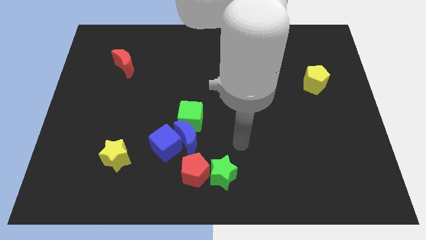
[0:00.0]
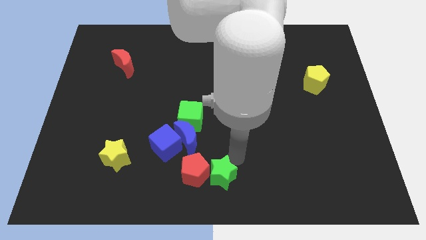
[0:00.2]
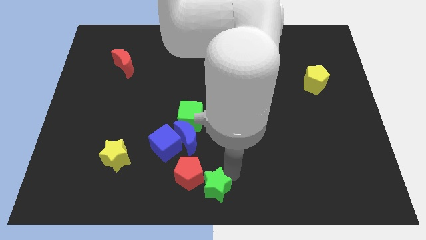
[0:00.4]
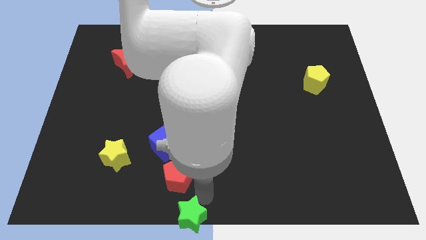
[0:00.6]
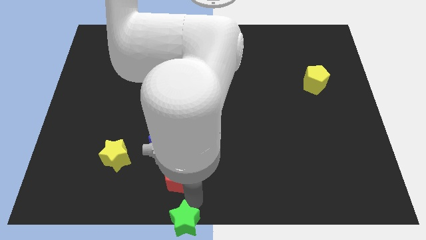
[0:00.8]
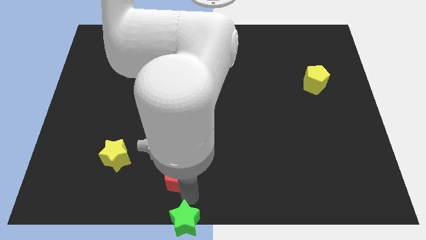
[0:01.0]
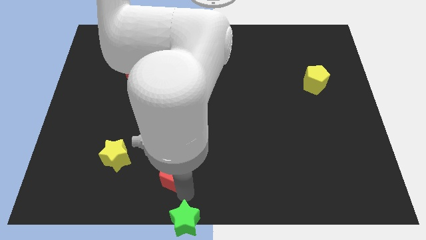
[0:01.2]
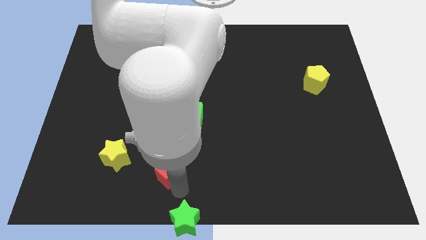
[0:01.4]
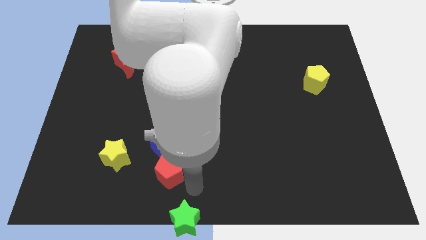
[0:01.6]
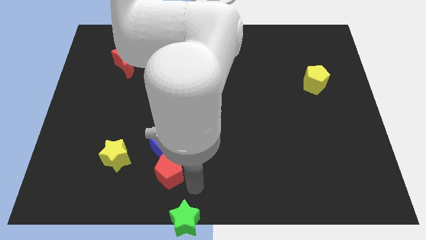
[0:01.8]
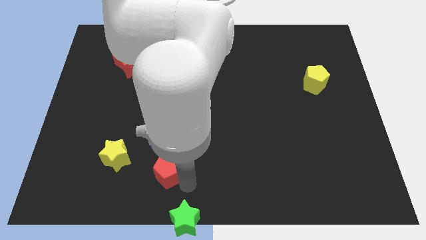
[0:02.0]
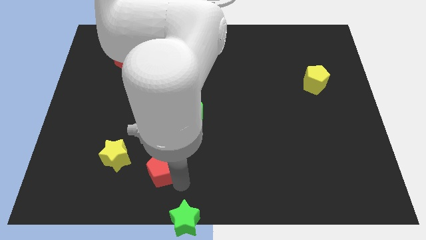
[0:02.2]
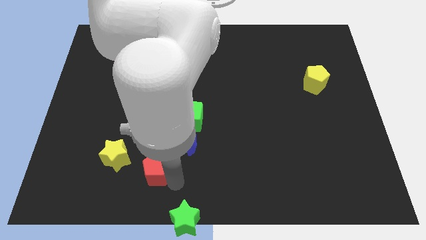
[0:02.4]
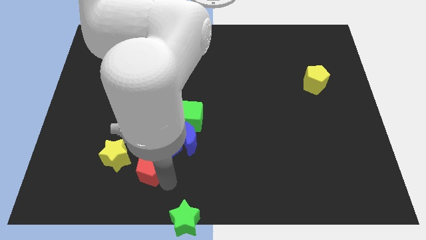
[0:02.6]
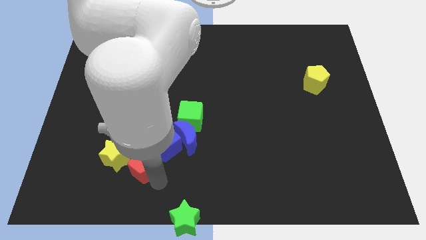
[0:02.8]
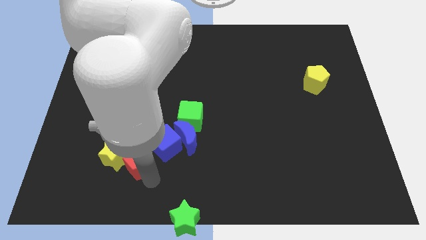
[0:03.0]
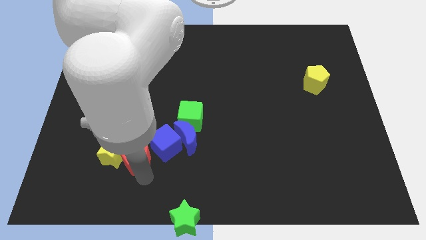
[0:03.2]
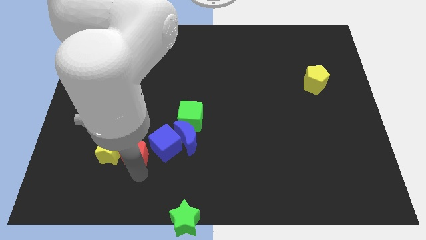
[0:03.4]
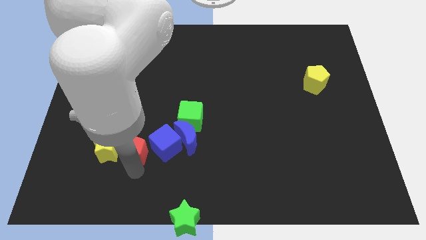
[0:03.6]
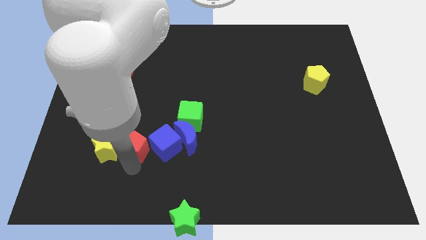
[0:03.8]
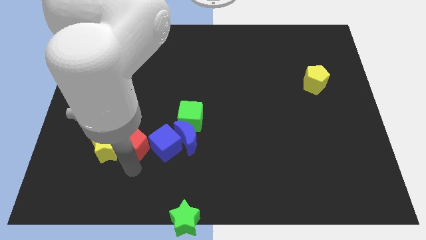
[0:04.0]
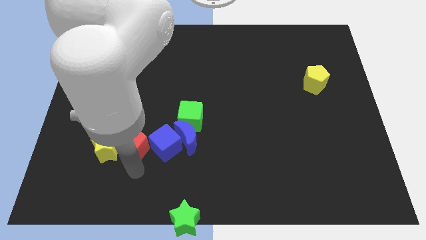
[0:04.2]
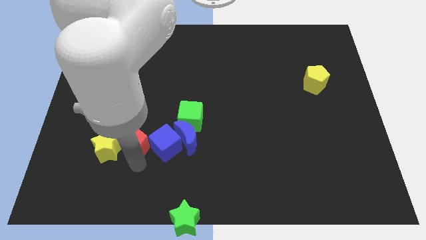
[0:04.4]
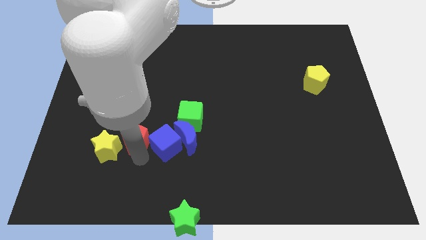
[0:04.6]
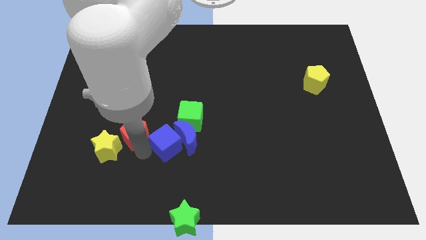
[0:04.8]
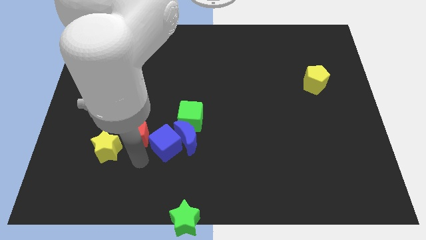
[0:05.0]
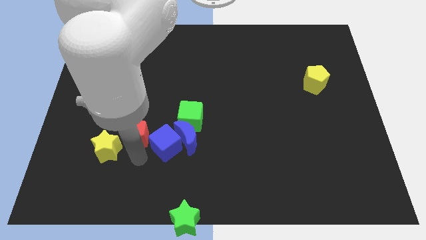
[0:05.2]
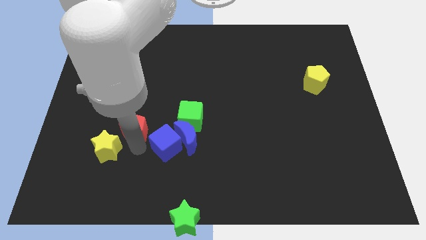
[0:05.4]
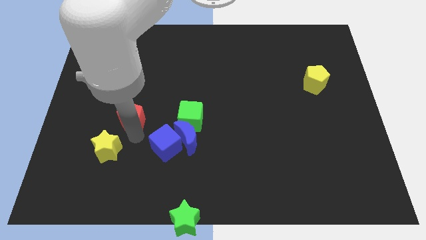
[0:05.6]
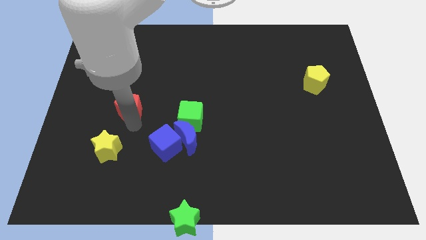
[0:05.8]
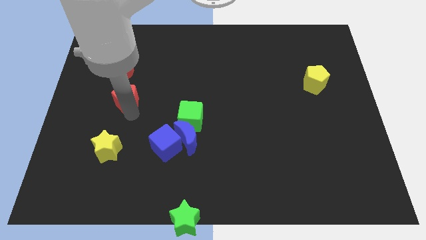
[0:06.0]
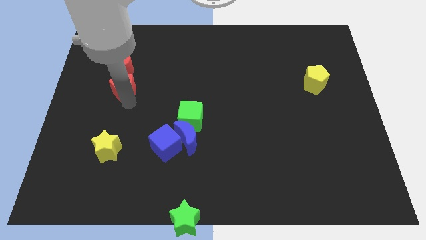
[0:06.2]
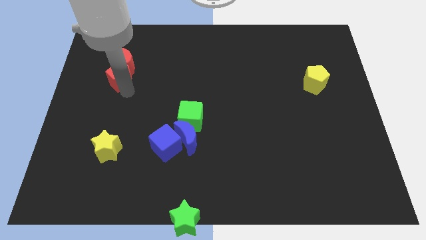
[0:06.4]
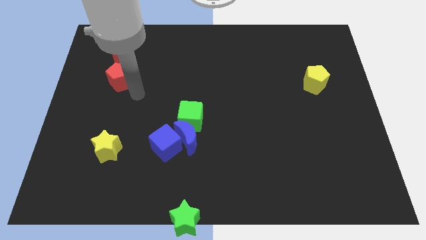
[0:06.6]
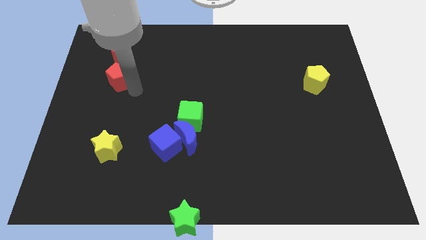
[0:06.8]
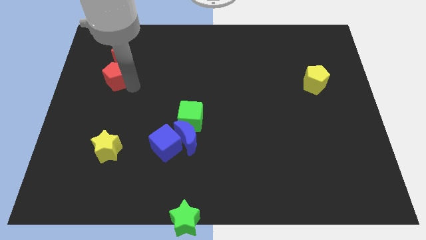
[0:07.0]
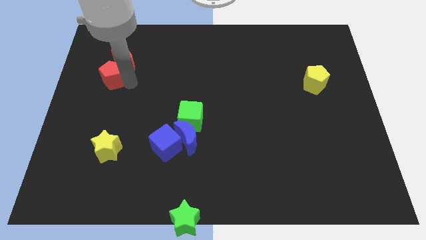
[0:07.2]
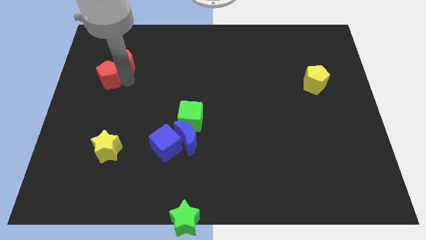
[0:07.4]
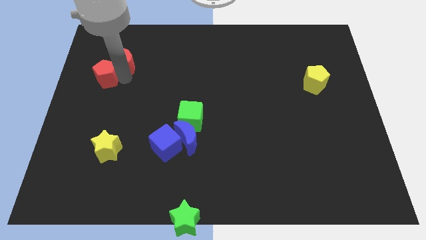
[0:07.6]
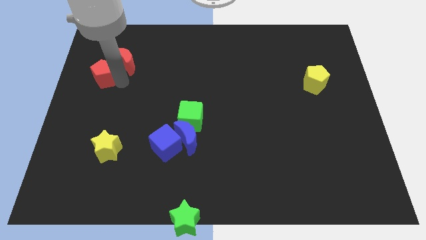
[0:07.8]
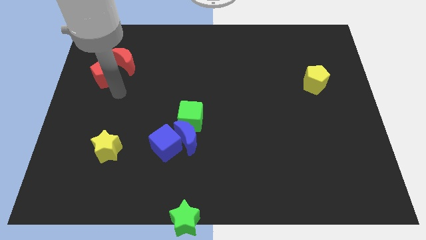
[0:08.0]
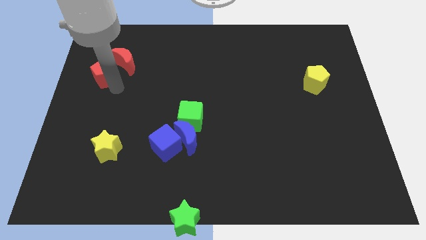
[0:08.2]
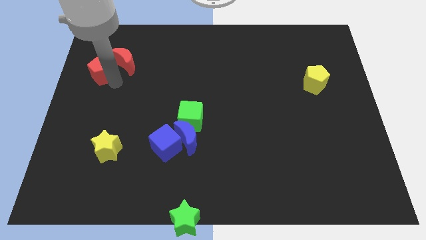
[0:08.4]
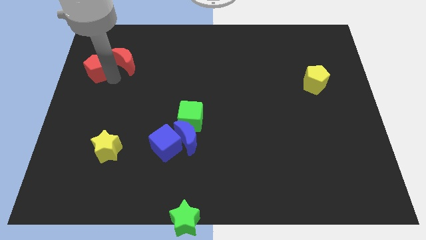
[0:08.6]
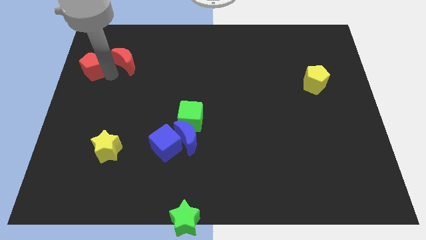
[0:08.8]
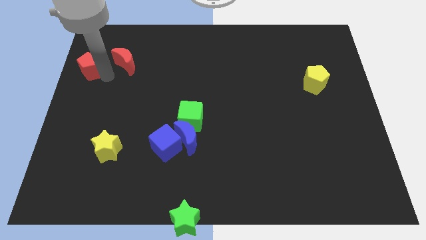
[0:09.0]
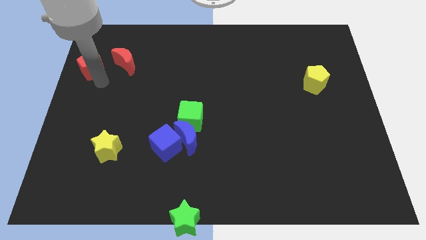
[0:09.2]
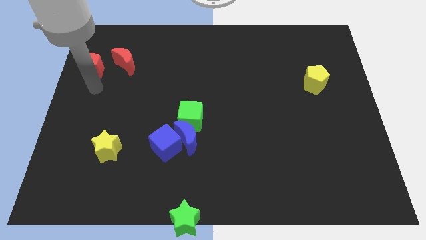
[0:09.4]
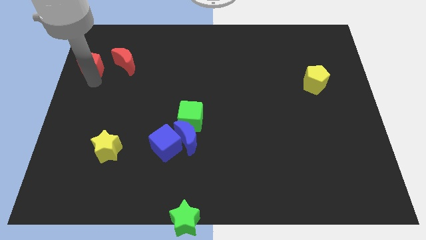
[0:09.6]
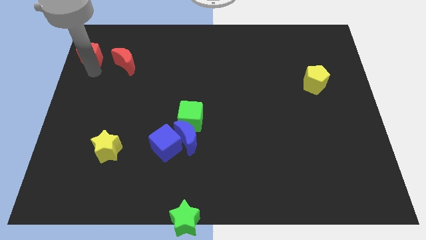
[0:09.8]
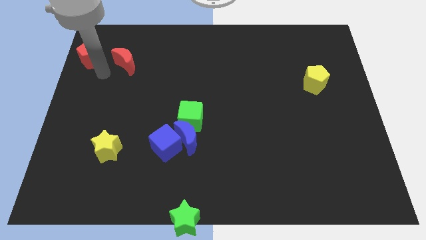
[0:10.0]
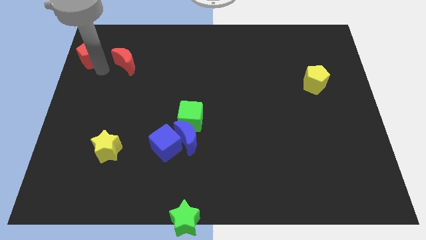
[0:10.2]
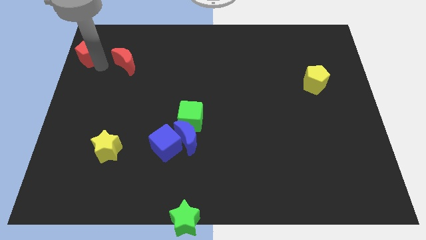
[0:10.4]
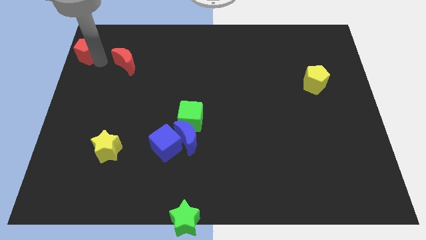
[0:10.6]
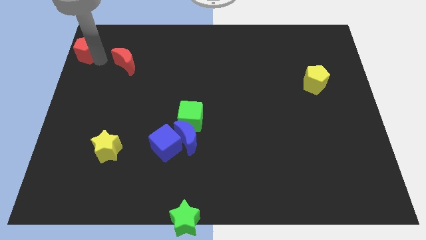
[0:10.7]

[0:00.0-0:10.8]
put the red pentagon to the upper left corner
